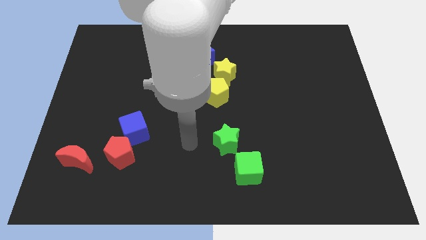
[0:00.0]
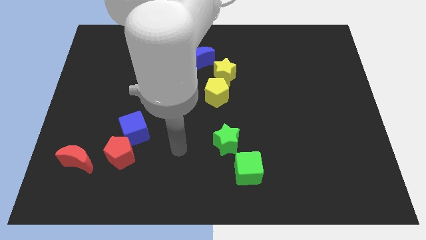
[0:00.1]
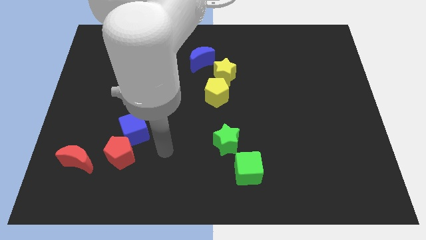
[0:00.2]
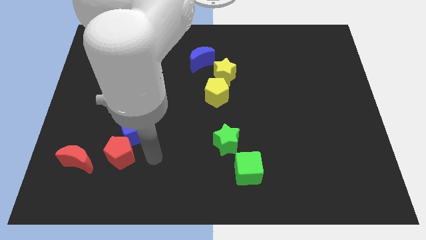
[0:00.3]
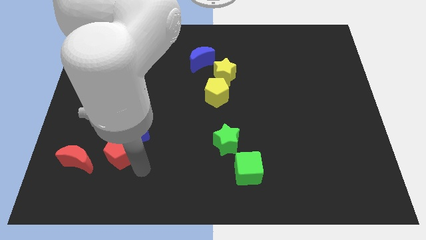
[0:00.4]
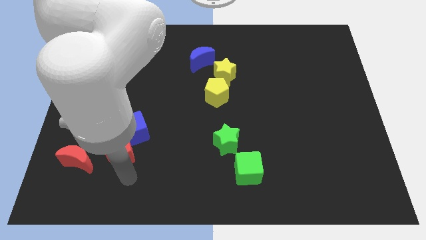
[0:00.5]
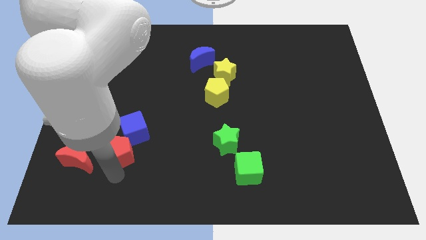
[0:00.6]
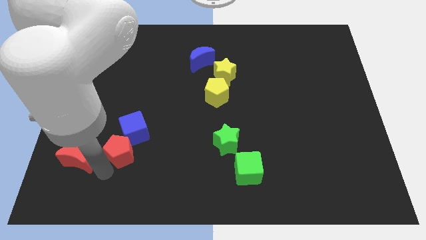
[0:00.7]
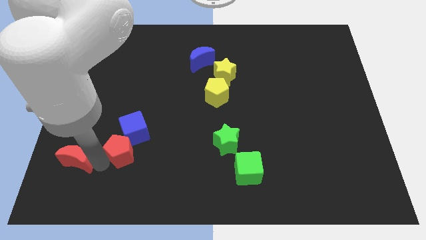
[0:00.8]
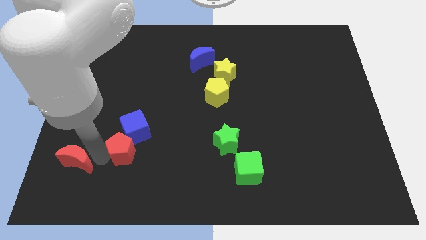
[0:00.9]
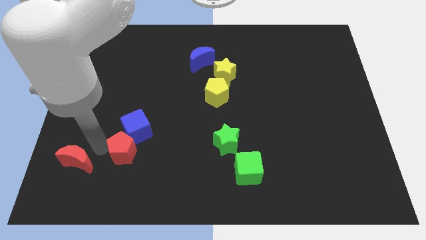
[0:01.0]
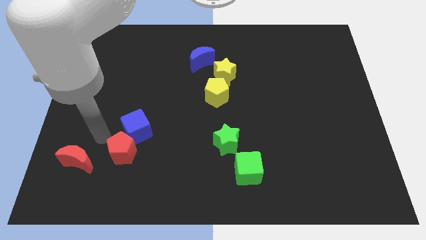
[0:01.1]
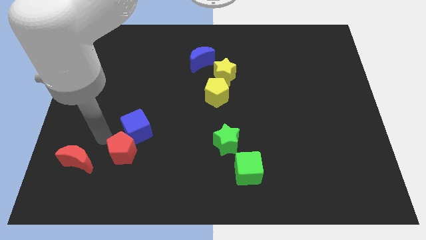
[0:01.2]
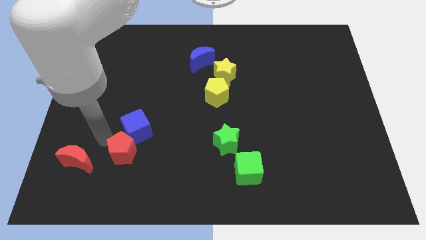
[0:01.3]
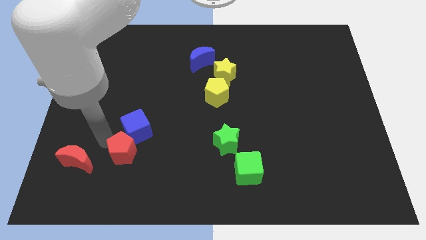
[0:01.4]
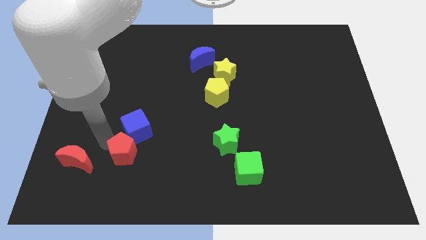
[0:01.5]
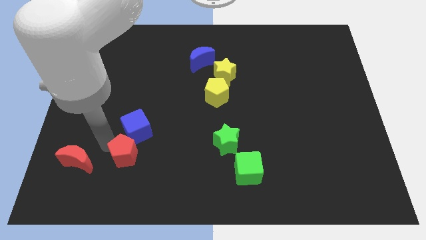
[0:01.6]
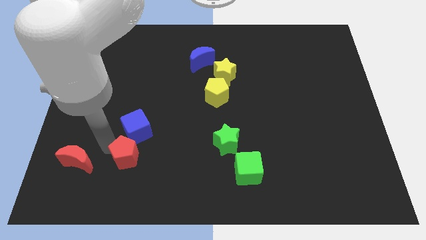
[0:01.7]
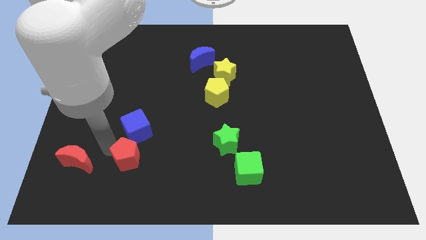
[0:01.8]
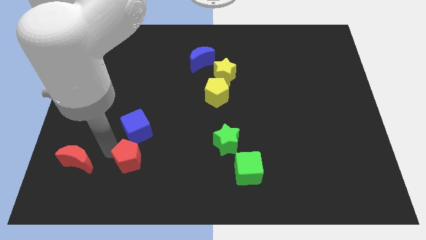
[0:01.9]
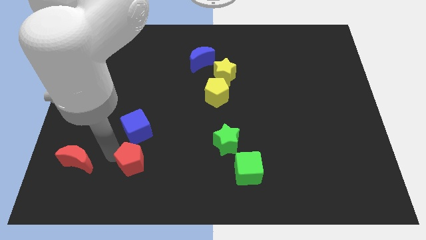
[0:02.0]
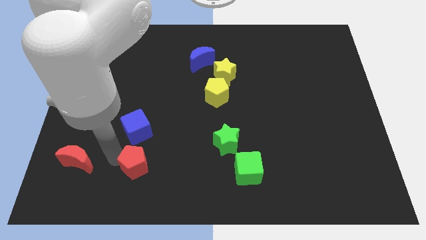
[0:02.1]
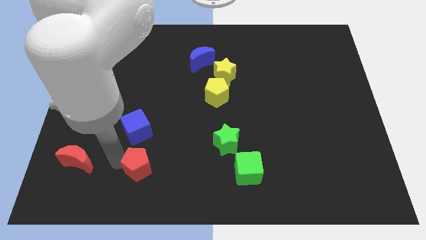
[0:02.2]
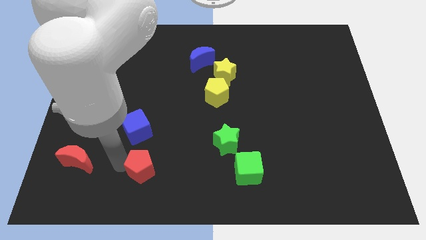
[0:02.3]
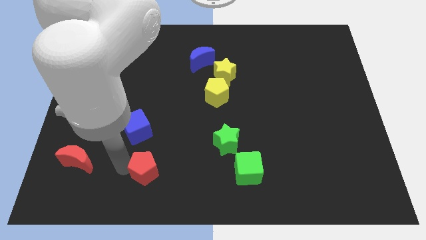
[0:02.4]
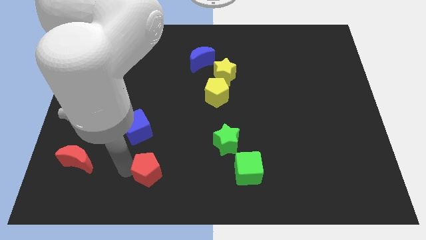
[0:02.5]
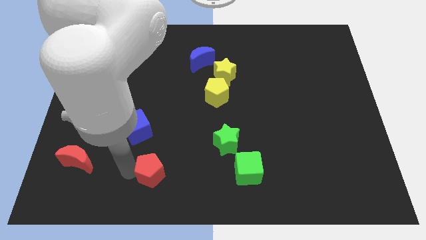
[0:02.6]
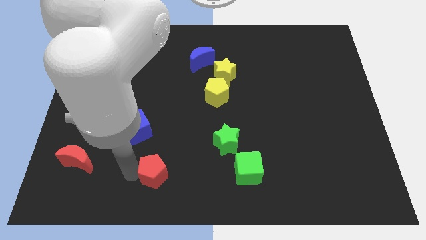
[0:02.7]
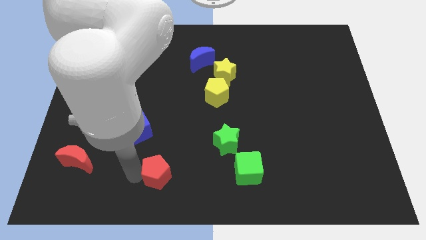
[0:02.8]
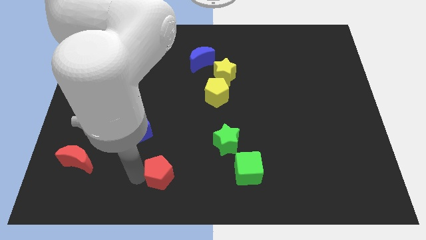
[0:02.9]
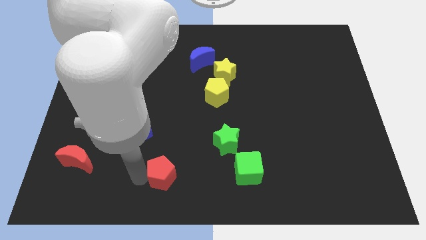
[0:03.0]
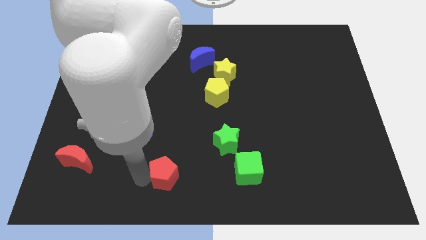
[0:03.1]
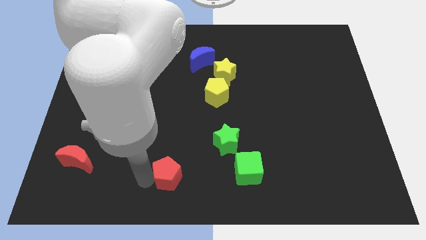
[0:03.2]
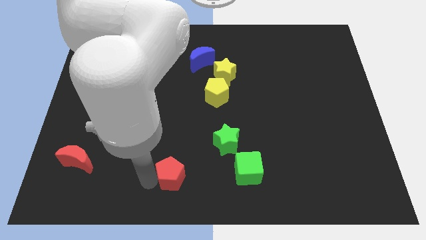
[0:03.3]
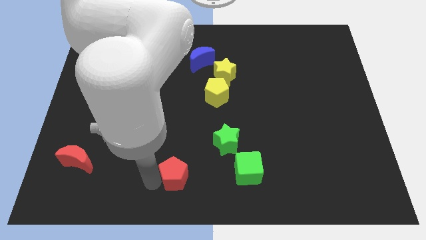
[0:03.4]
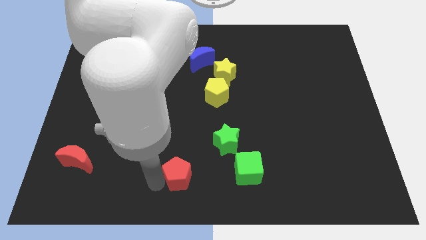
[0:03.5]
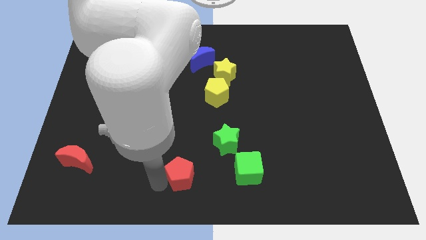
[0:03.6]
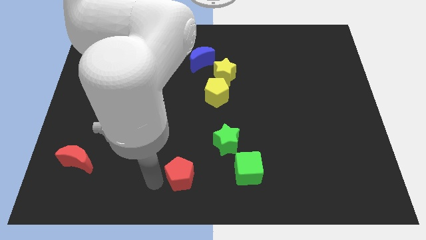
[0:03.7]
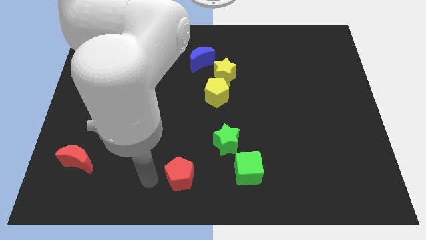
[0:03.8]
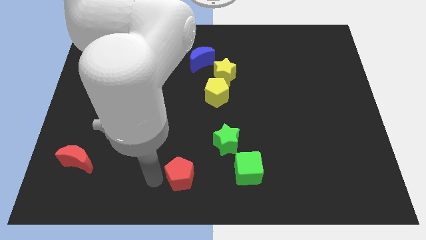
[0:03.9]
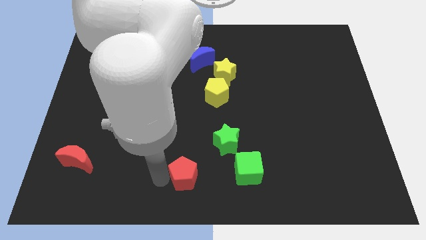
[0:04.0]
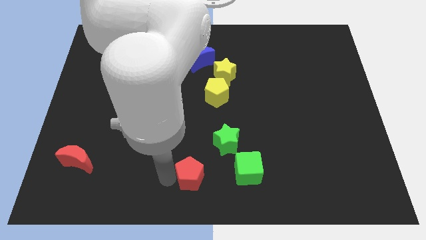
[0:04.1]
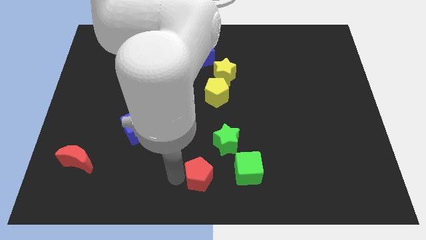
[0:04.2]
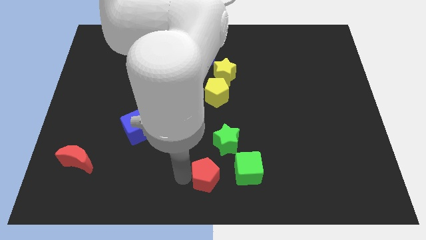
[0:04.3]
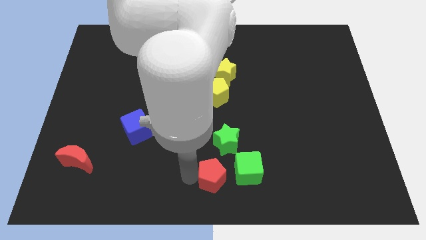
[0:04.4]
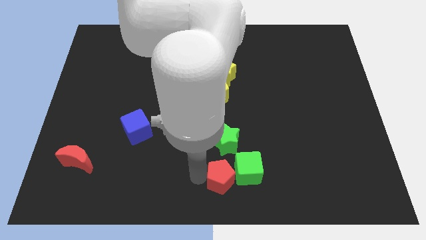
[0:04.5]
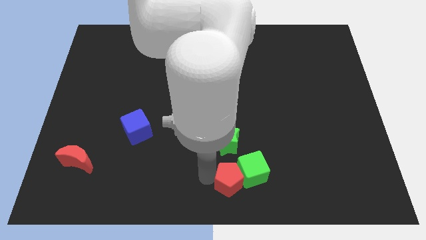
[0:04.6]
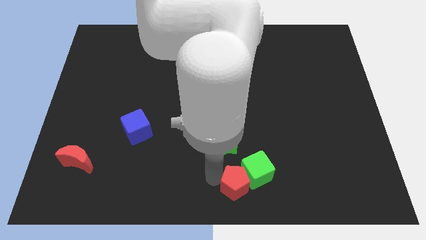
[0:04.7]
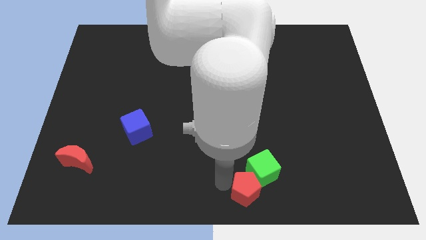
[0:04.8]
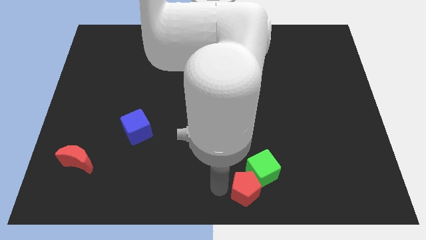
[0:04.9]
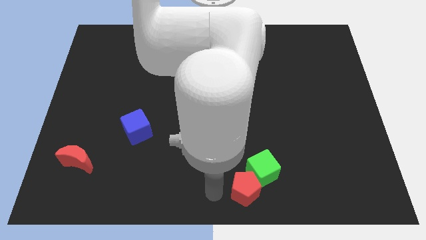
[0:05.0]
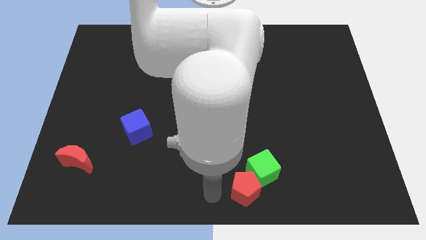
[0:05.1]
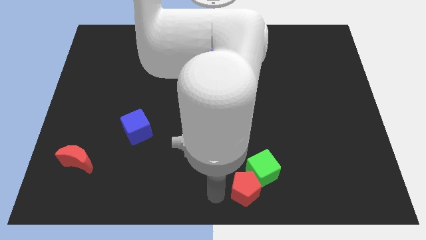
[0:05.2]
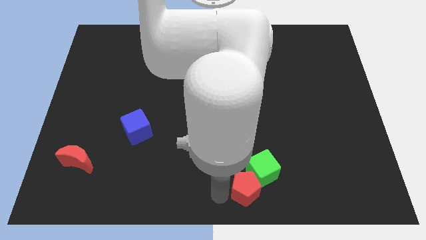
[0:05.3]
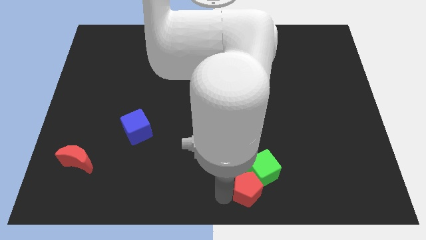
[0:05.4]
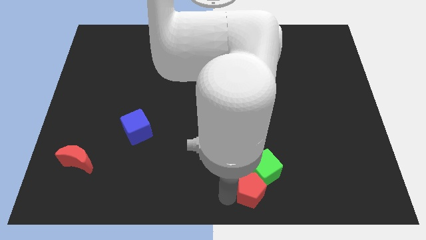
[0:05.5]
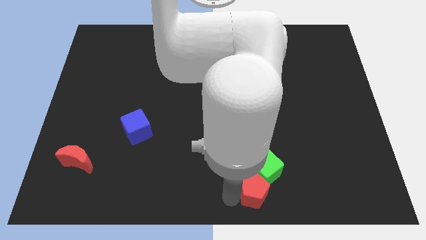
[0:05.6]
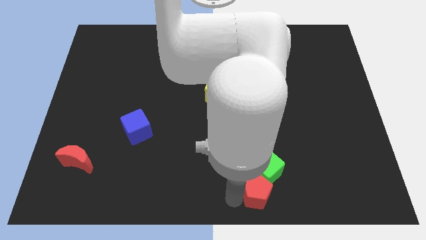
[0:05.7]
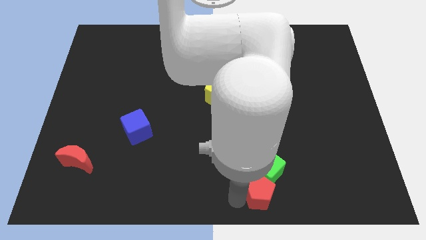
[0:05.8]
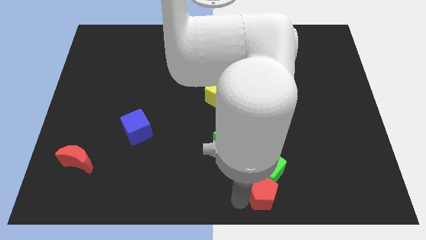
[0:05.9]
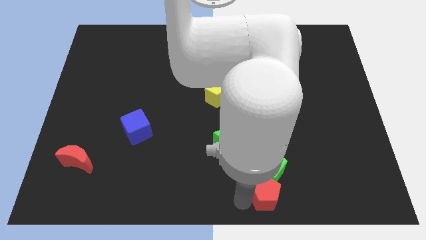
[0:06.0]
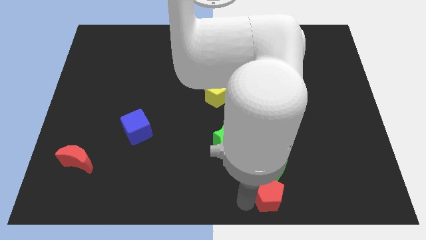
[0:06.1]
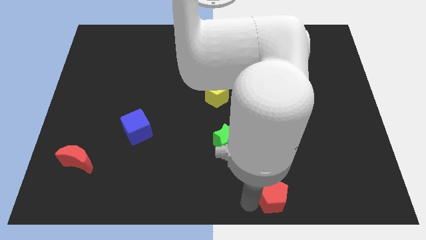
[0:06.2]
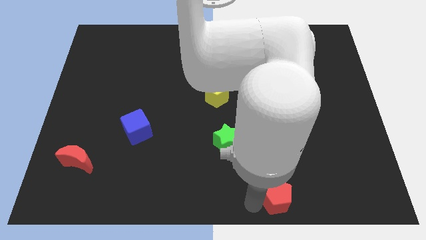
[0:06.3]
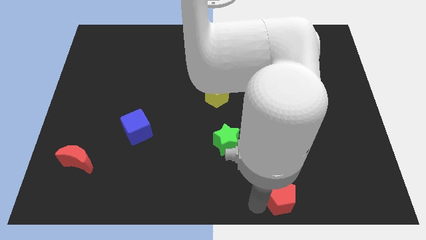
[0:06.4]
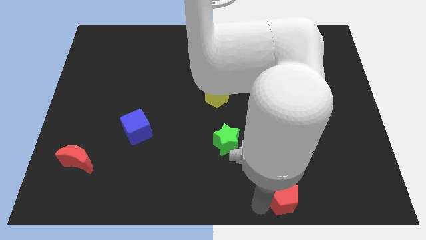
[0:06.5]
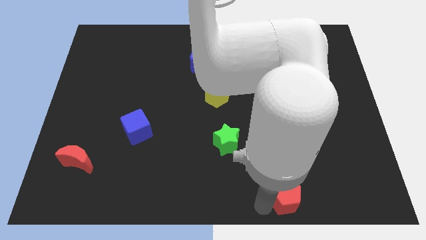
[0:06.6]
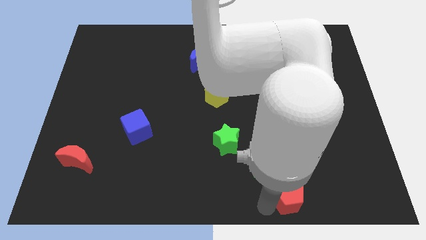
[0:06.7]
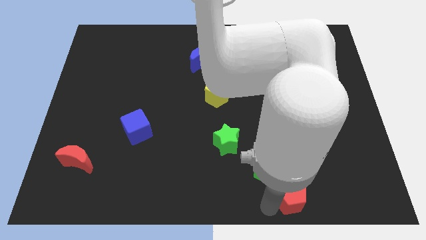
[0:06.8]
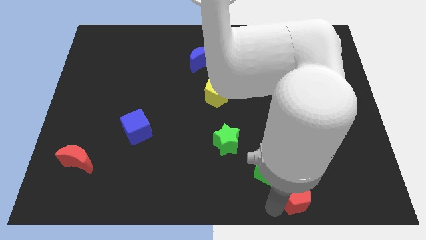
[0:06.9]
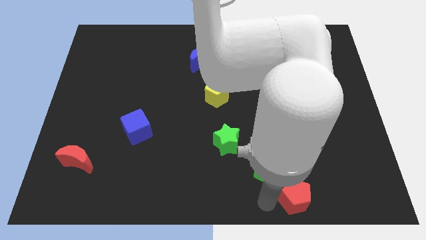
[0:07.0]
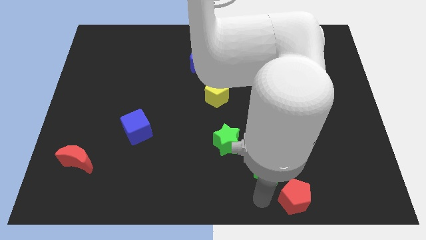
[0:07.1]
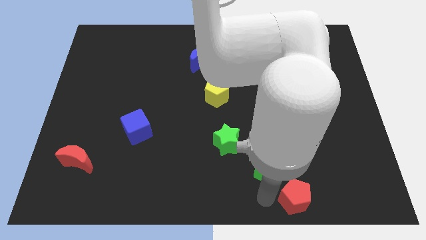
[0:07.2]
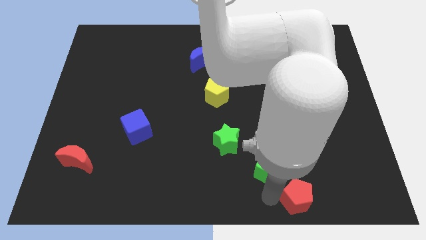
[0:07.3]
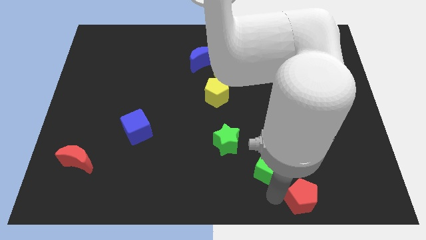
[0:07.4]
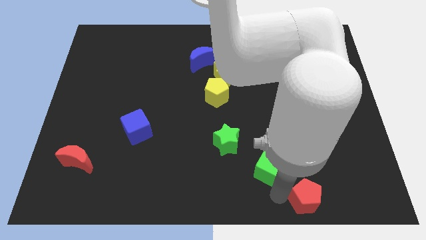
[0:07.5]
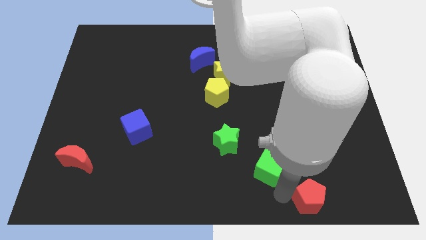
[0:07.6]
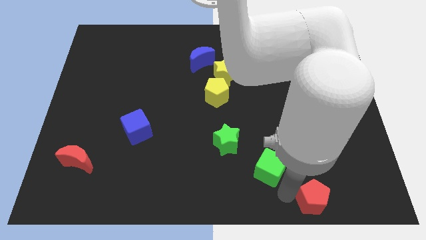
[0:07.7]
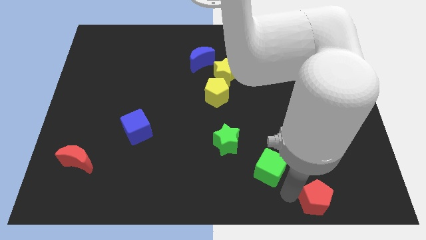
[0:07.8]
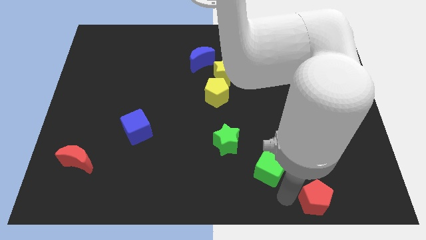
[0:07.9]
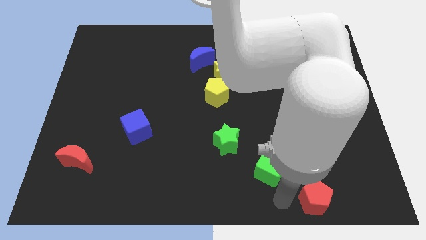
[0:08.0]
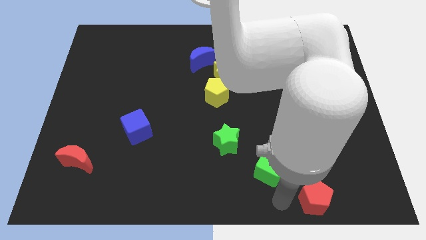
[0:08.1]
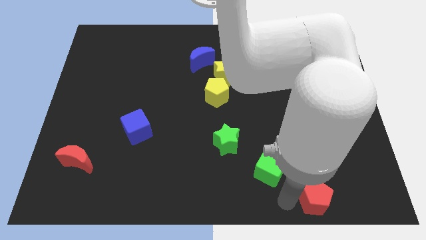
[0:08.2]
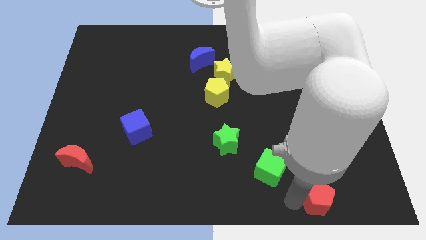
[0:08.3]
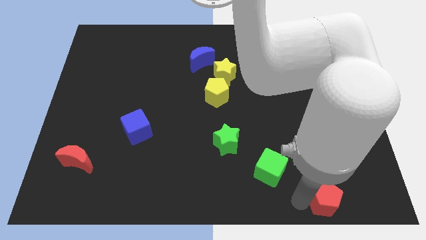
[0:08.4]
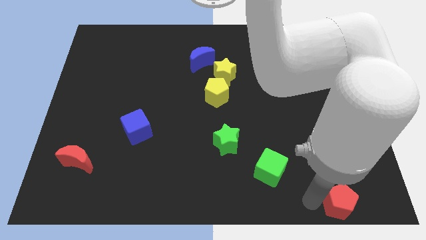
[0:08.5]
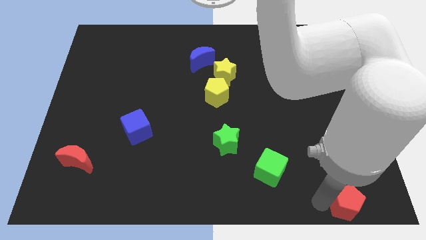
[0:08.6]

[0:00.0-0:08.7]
push the red pentagon to the lower right corner
